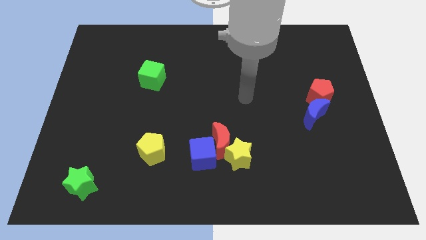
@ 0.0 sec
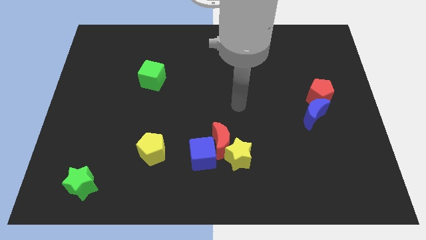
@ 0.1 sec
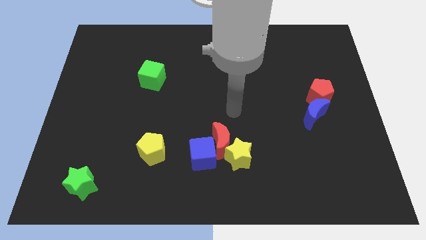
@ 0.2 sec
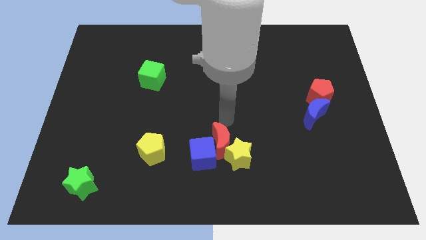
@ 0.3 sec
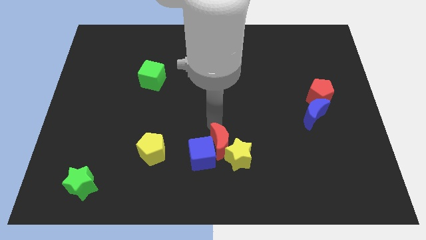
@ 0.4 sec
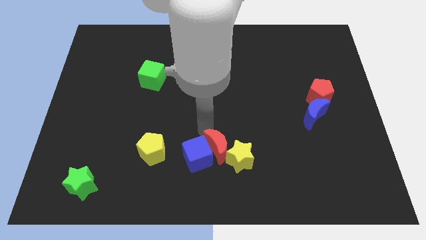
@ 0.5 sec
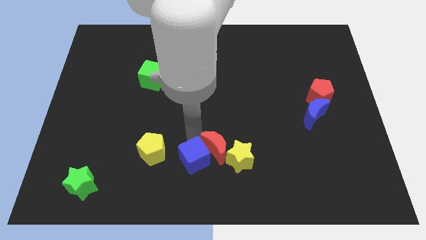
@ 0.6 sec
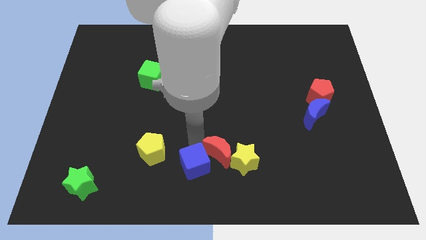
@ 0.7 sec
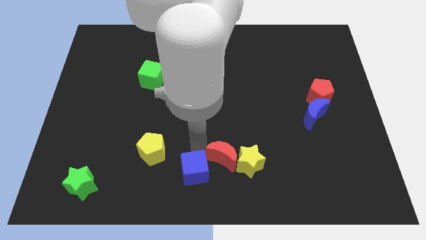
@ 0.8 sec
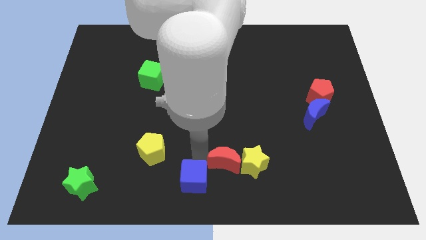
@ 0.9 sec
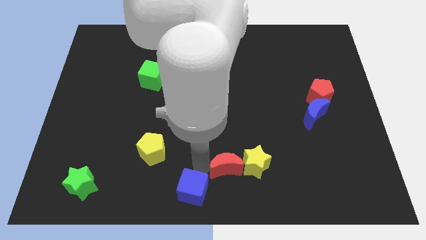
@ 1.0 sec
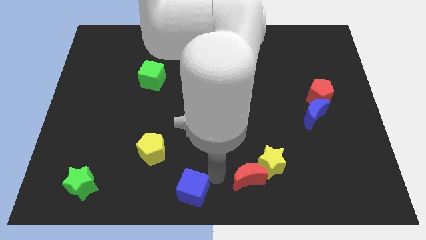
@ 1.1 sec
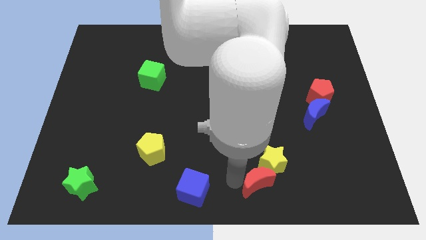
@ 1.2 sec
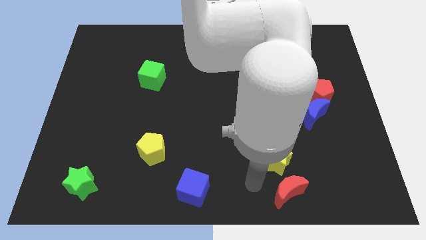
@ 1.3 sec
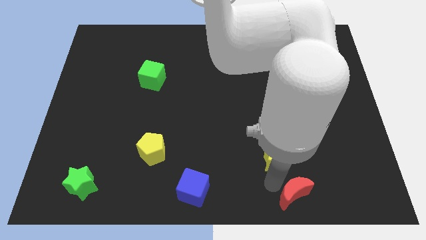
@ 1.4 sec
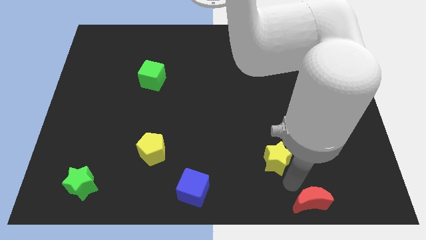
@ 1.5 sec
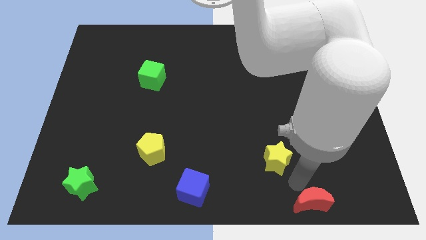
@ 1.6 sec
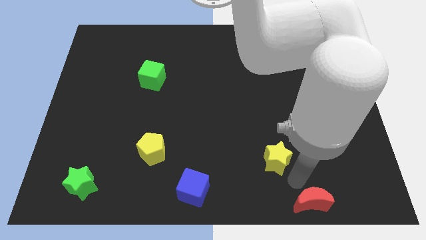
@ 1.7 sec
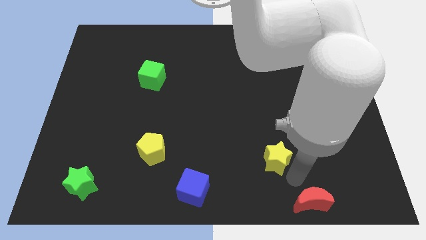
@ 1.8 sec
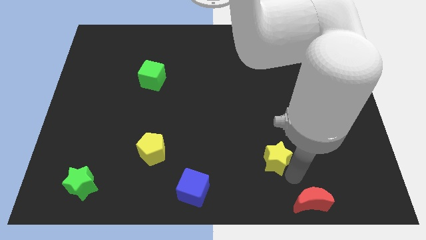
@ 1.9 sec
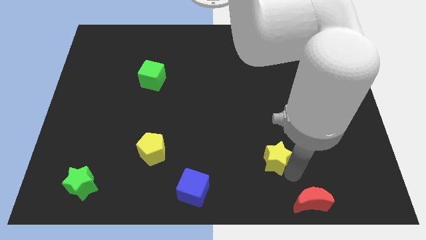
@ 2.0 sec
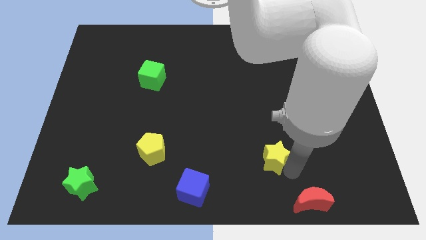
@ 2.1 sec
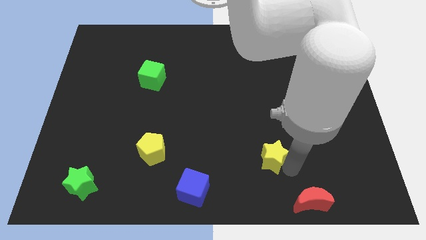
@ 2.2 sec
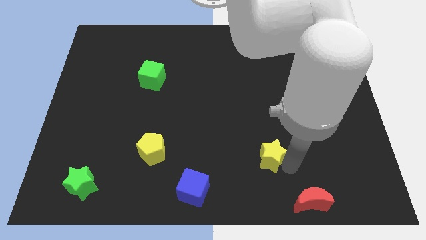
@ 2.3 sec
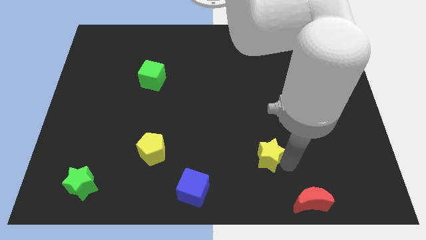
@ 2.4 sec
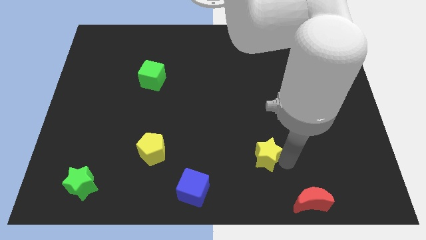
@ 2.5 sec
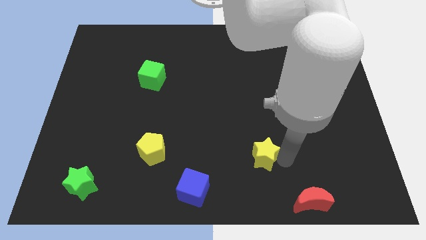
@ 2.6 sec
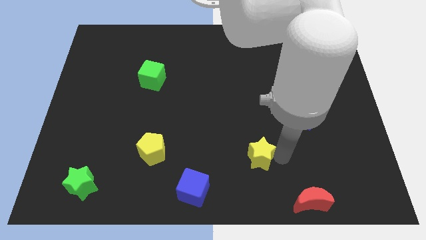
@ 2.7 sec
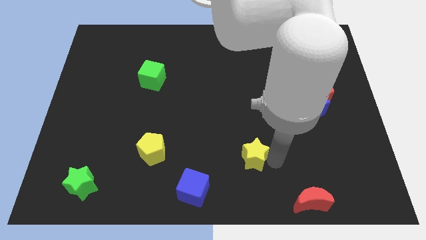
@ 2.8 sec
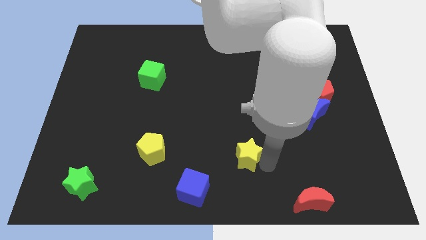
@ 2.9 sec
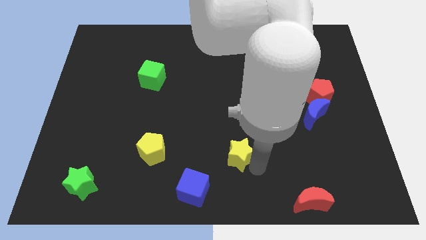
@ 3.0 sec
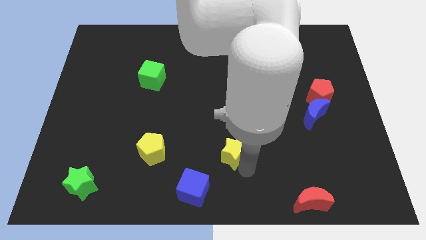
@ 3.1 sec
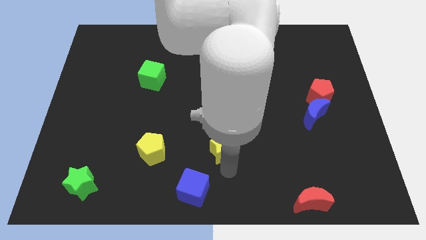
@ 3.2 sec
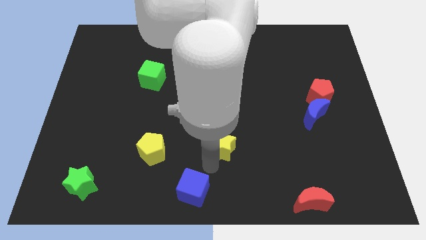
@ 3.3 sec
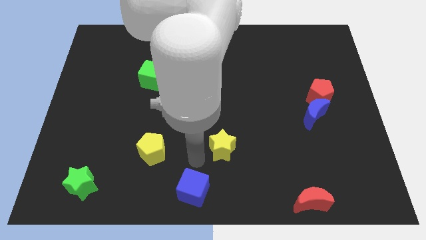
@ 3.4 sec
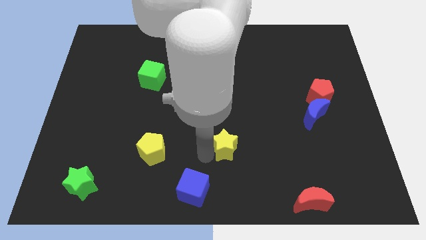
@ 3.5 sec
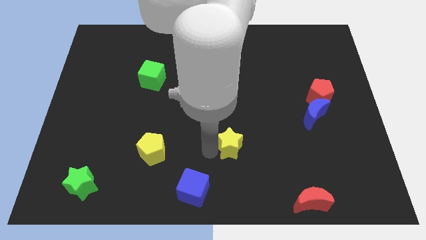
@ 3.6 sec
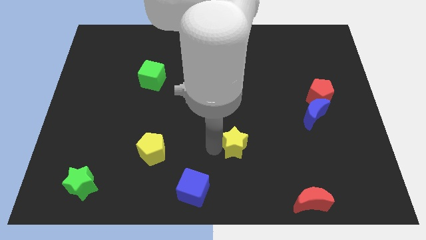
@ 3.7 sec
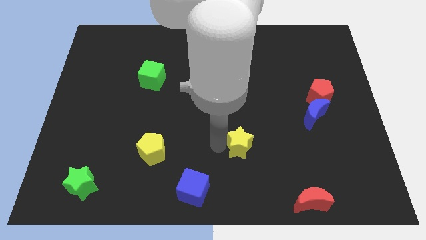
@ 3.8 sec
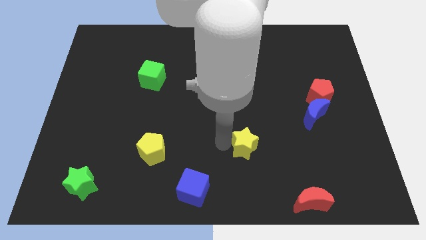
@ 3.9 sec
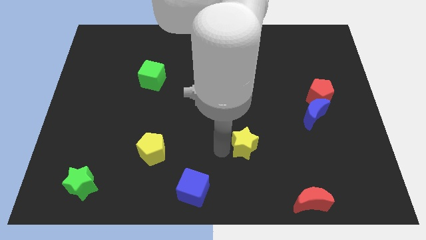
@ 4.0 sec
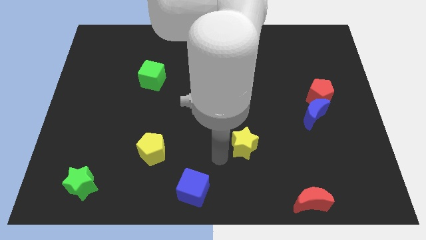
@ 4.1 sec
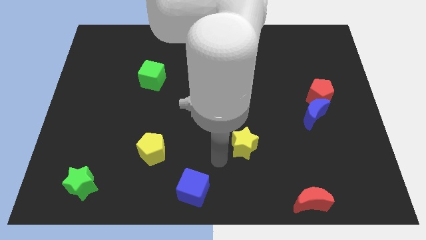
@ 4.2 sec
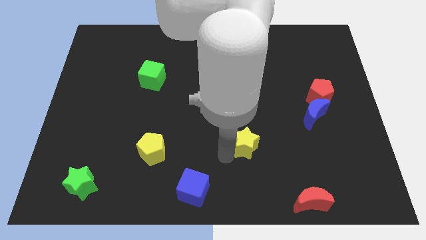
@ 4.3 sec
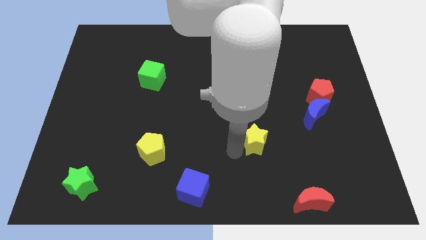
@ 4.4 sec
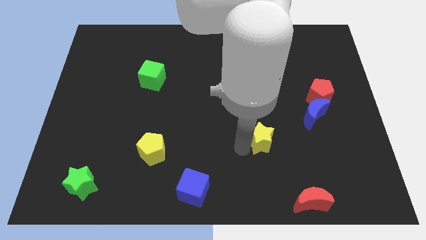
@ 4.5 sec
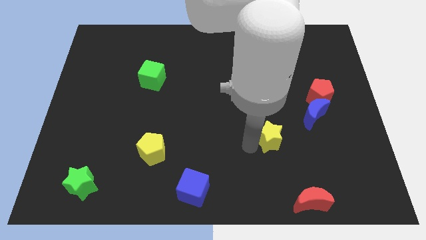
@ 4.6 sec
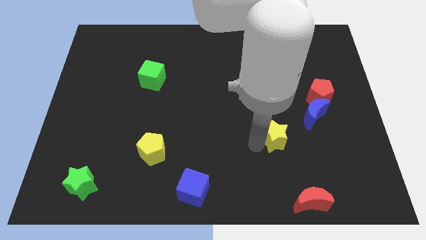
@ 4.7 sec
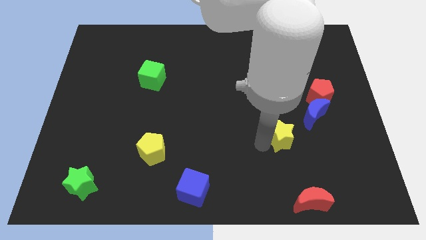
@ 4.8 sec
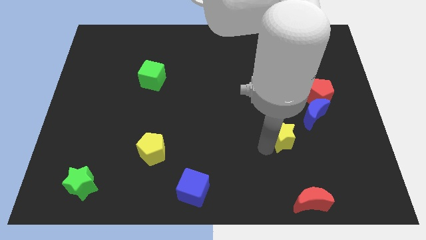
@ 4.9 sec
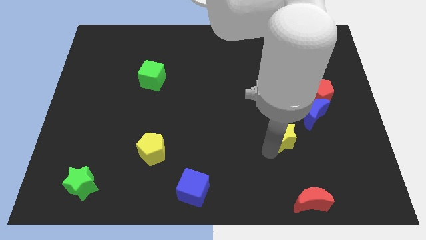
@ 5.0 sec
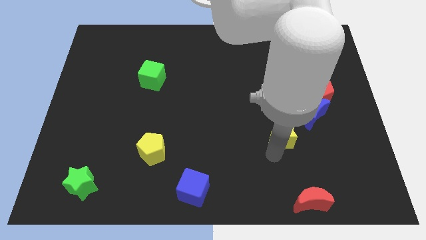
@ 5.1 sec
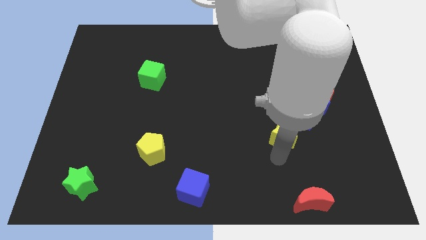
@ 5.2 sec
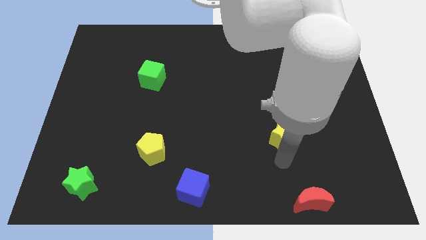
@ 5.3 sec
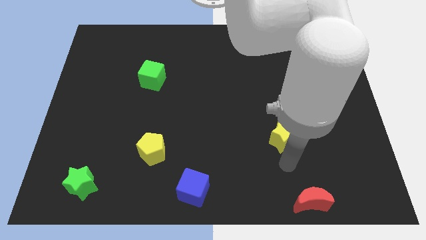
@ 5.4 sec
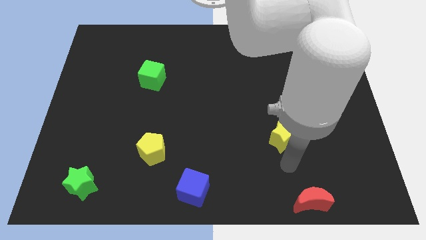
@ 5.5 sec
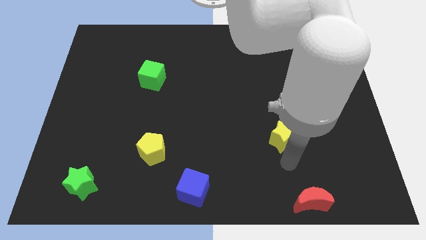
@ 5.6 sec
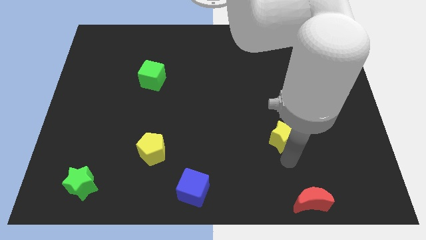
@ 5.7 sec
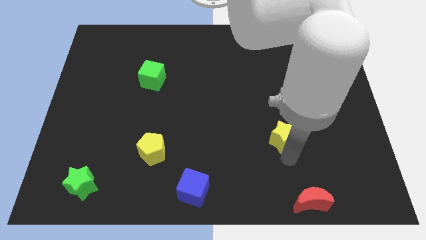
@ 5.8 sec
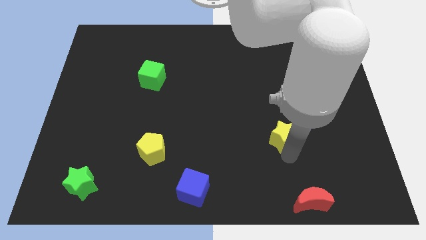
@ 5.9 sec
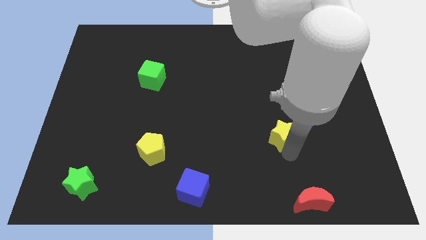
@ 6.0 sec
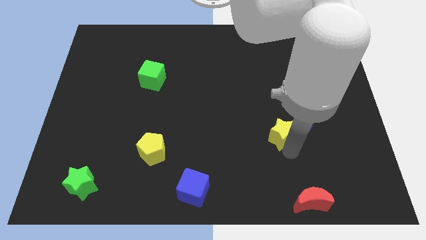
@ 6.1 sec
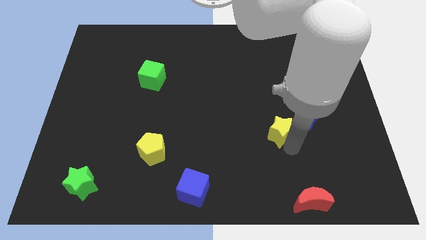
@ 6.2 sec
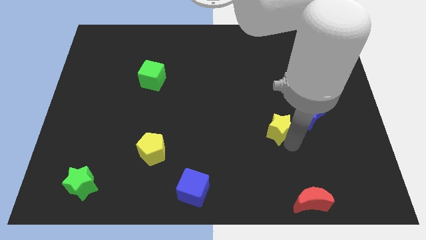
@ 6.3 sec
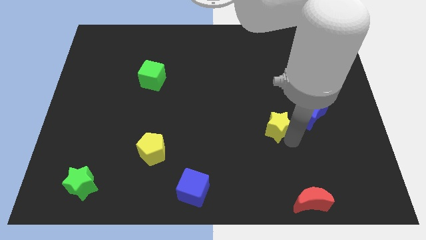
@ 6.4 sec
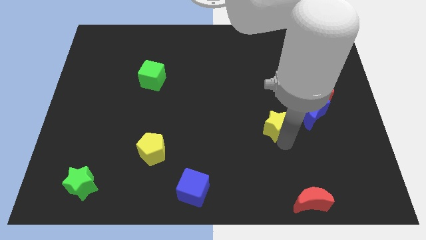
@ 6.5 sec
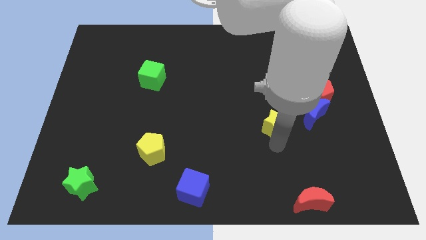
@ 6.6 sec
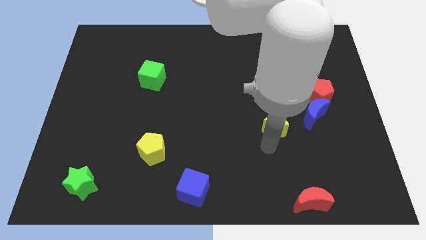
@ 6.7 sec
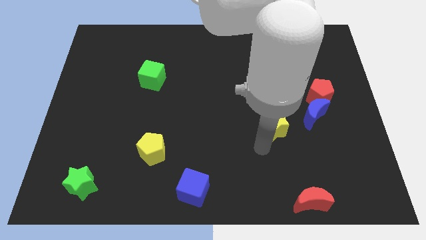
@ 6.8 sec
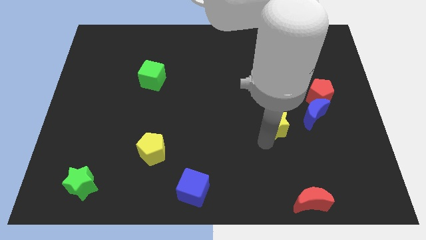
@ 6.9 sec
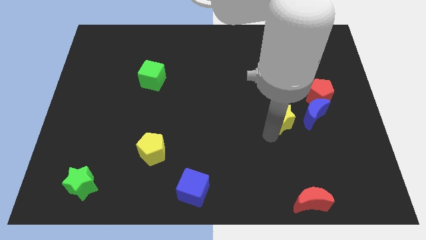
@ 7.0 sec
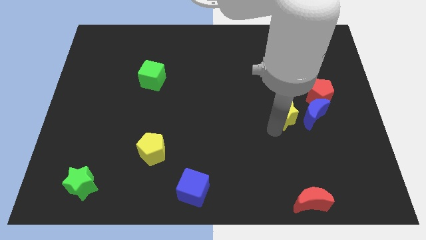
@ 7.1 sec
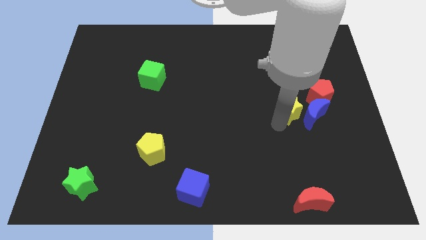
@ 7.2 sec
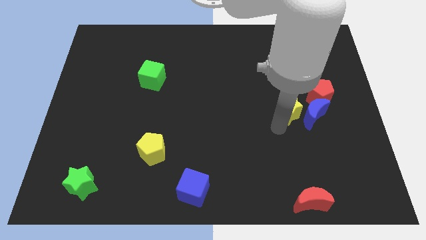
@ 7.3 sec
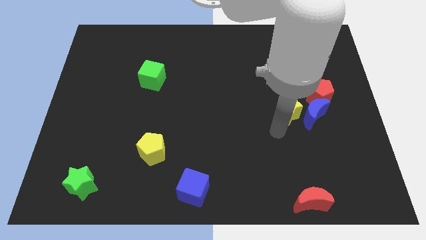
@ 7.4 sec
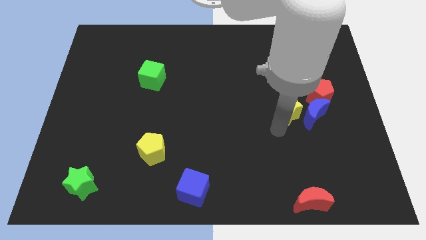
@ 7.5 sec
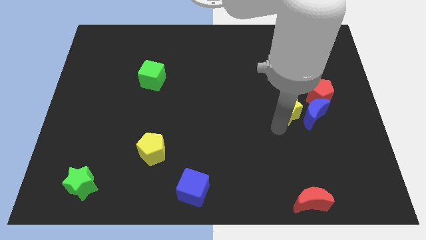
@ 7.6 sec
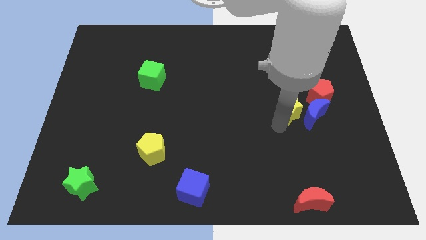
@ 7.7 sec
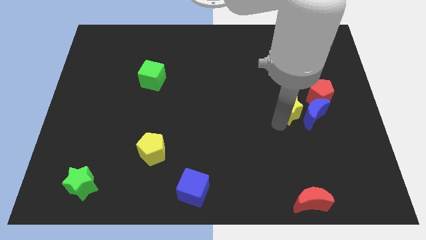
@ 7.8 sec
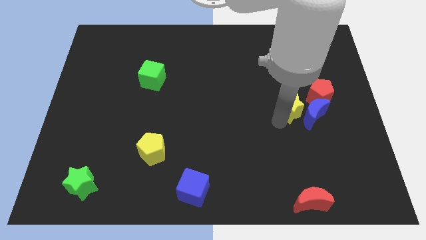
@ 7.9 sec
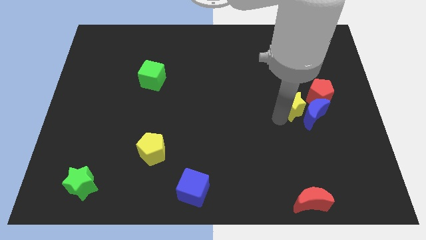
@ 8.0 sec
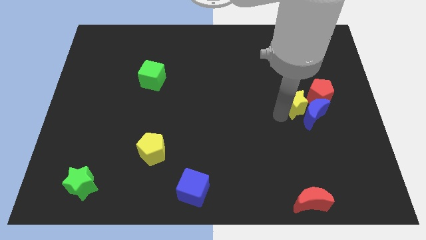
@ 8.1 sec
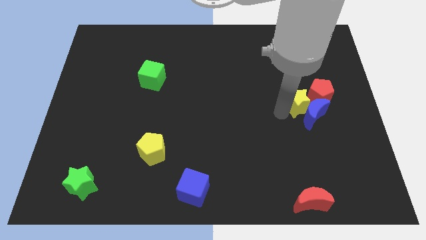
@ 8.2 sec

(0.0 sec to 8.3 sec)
slide the yellow star to the red pentagon
